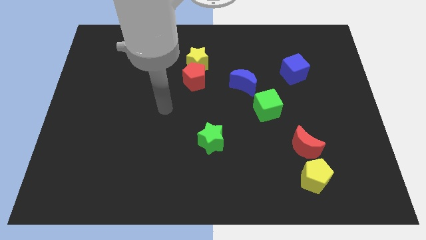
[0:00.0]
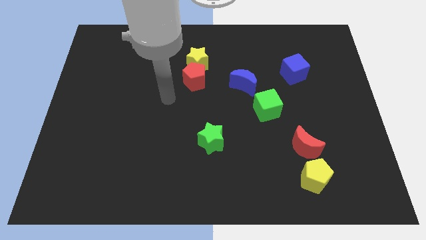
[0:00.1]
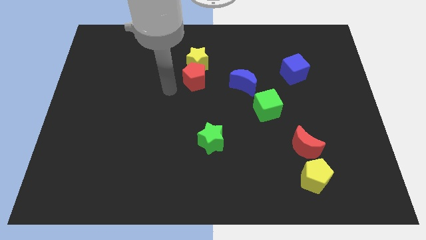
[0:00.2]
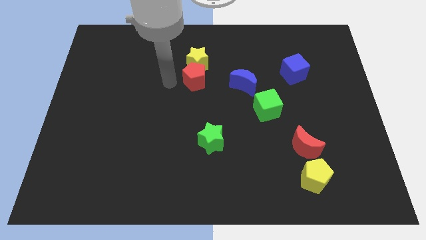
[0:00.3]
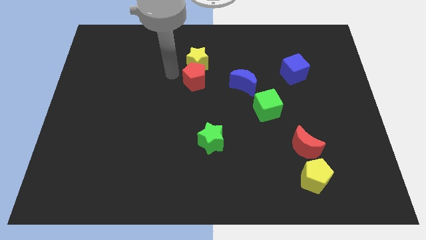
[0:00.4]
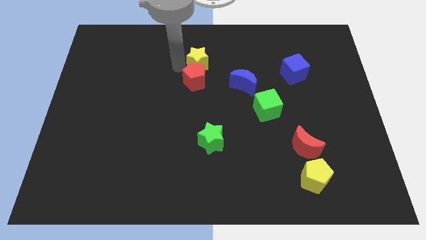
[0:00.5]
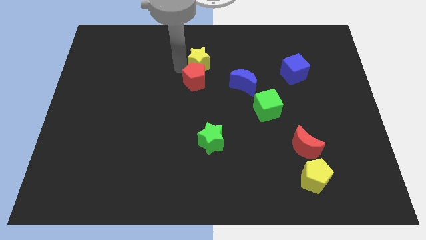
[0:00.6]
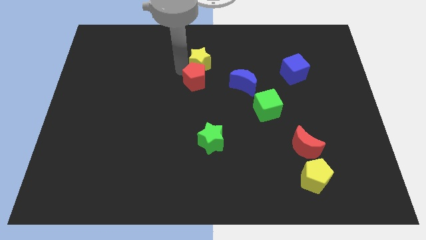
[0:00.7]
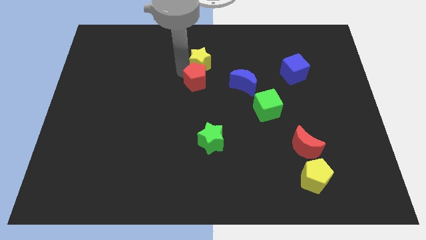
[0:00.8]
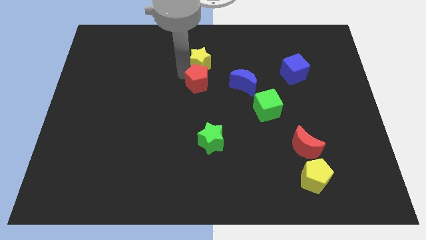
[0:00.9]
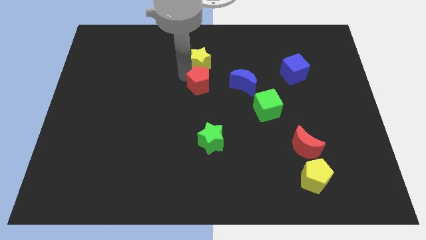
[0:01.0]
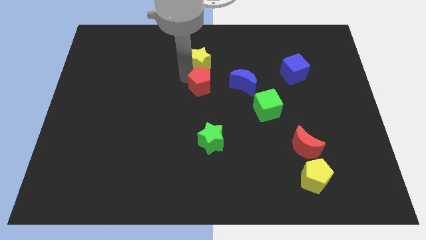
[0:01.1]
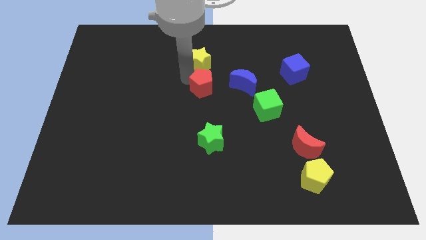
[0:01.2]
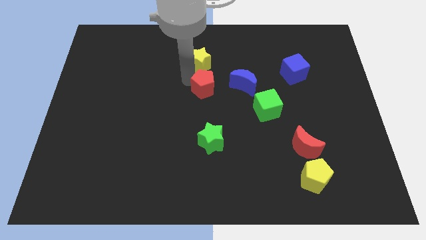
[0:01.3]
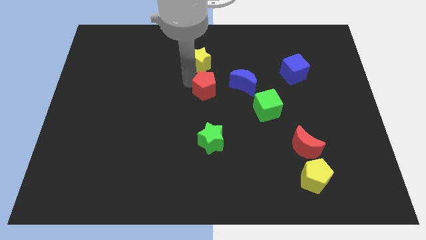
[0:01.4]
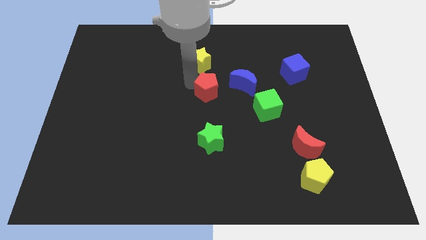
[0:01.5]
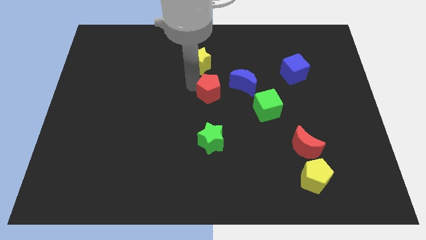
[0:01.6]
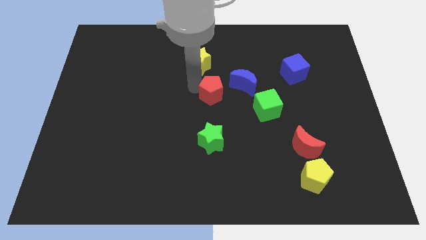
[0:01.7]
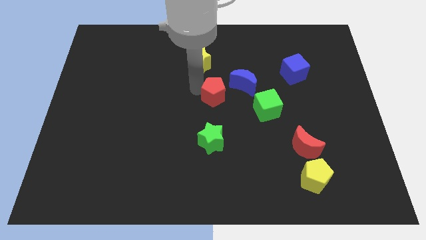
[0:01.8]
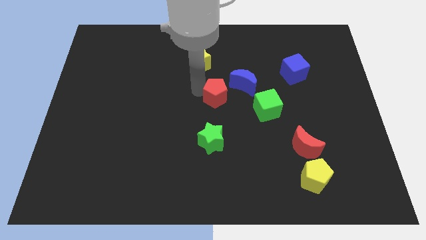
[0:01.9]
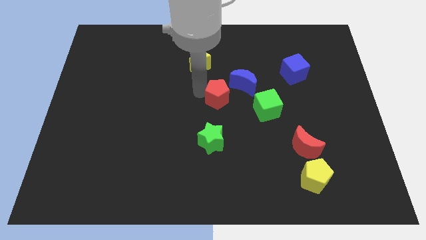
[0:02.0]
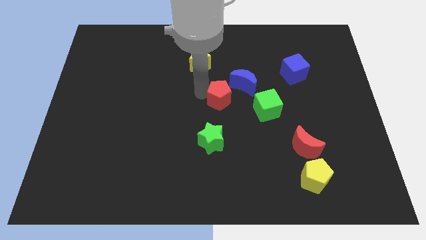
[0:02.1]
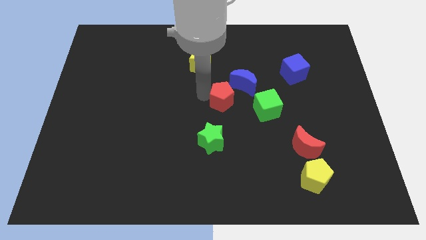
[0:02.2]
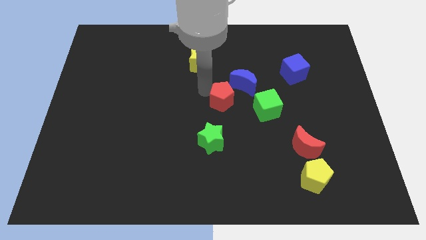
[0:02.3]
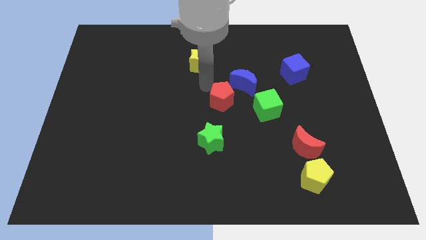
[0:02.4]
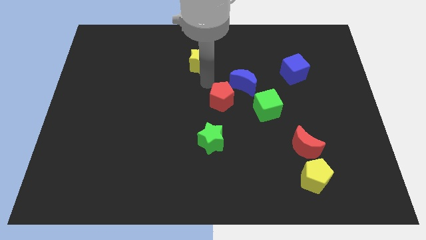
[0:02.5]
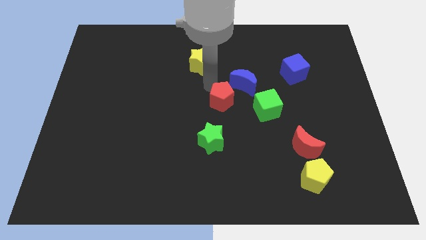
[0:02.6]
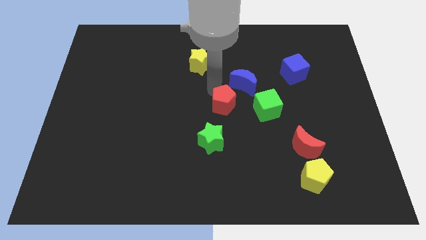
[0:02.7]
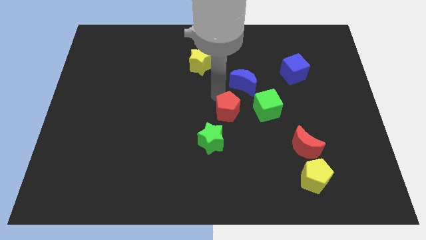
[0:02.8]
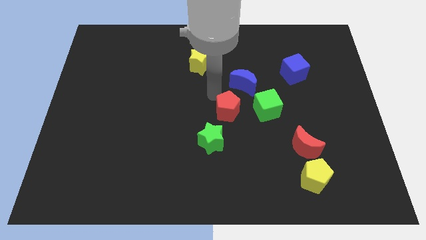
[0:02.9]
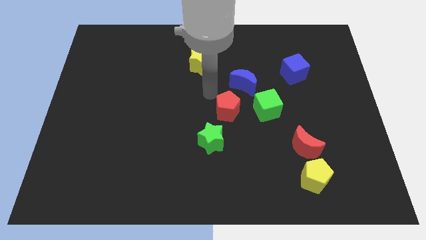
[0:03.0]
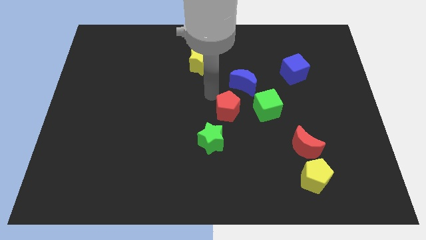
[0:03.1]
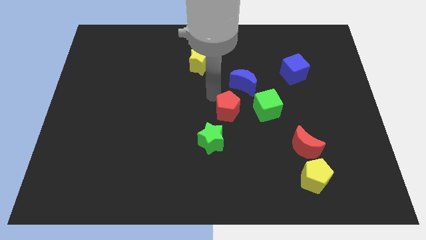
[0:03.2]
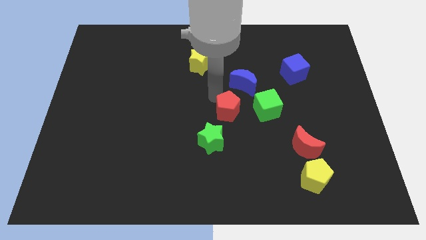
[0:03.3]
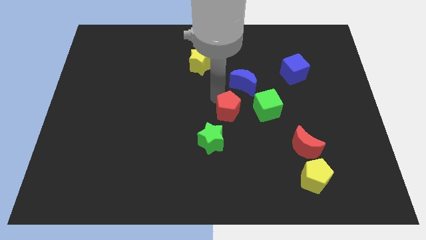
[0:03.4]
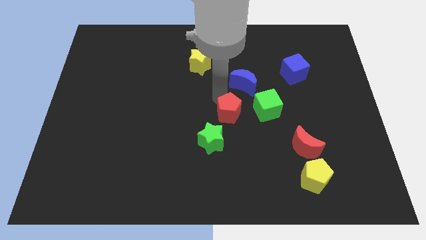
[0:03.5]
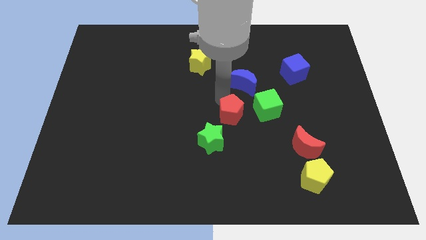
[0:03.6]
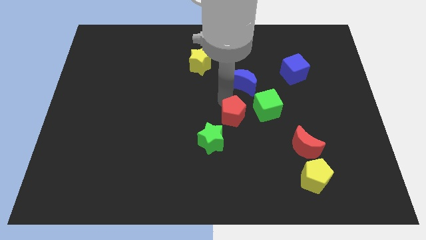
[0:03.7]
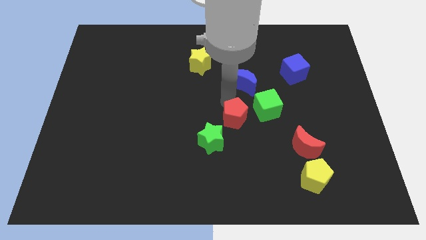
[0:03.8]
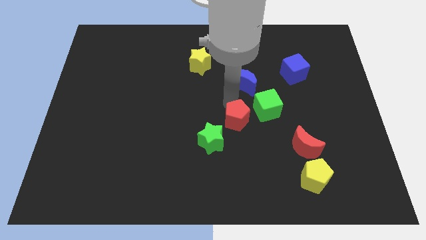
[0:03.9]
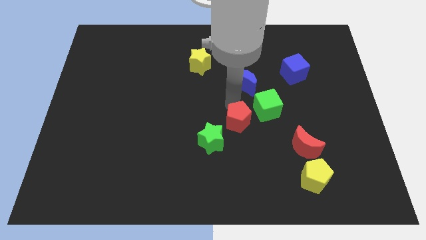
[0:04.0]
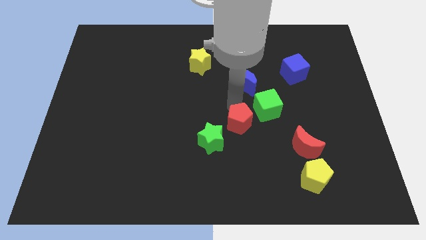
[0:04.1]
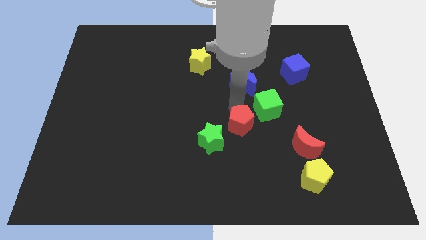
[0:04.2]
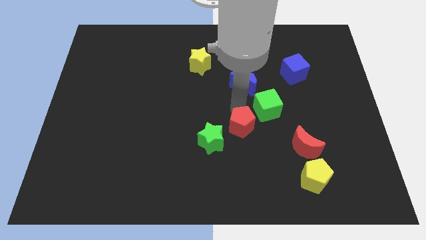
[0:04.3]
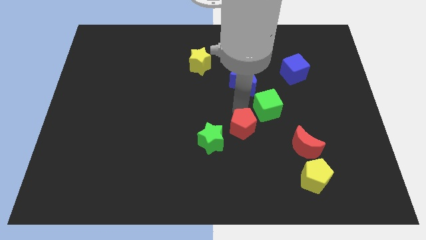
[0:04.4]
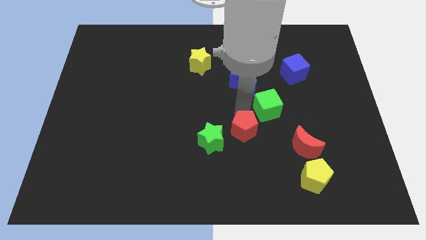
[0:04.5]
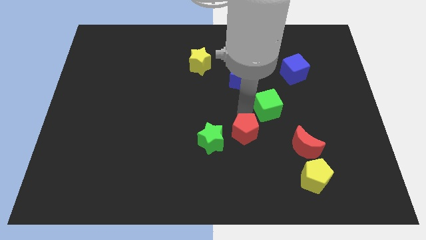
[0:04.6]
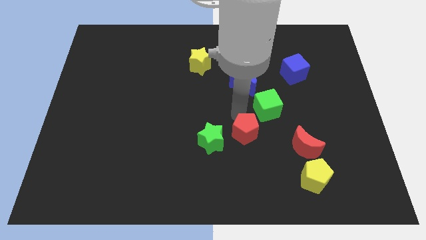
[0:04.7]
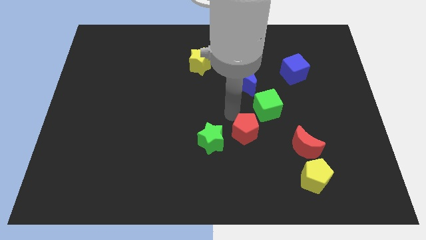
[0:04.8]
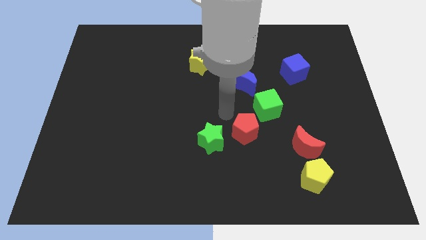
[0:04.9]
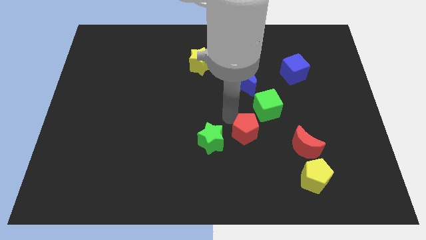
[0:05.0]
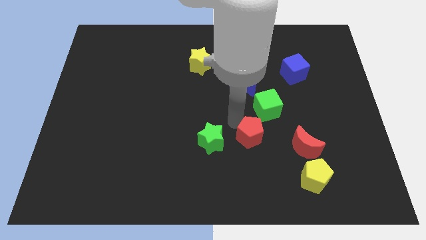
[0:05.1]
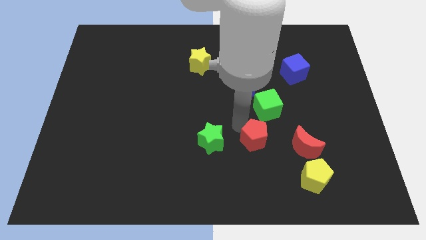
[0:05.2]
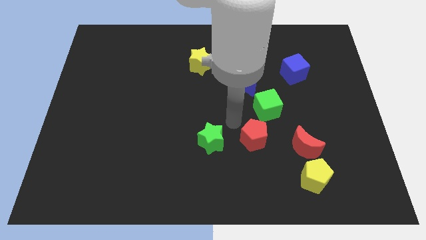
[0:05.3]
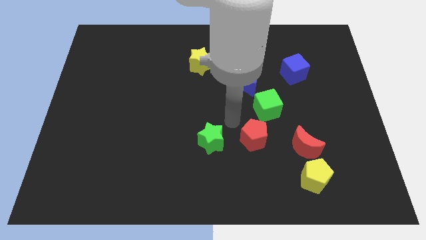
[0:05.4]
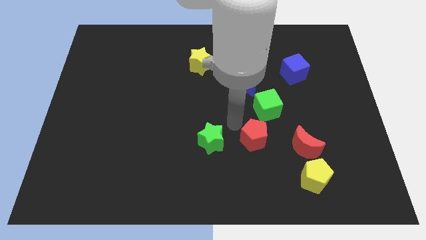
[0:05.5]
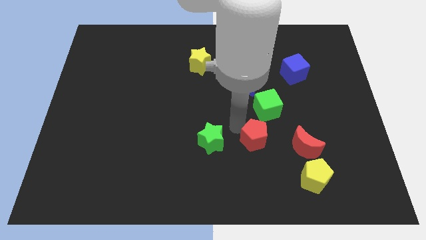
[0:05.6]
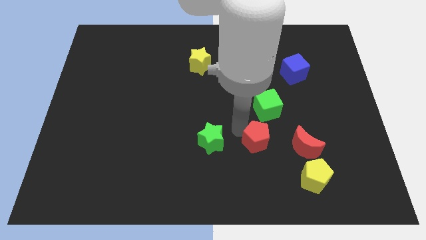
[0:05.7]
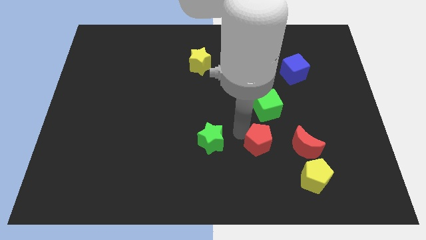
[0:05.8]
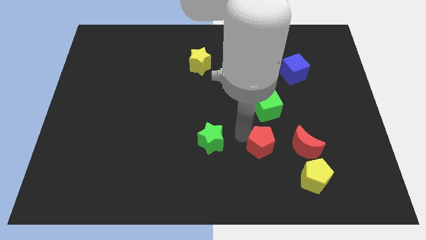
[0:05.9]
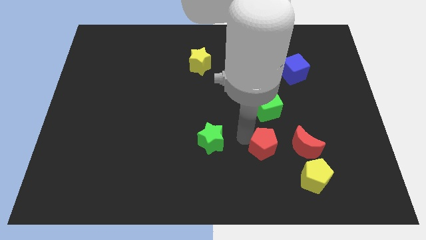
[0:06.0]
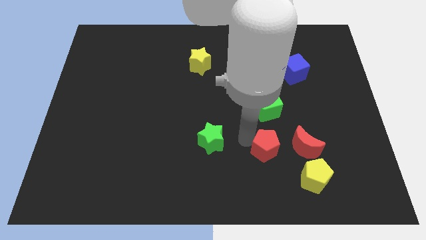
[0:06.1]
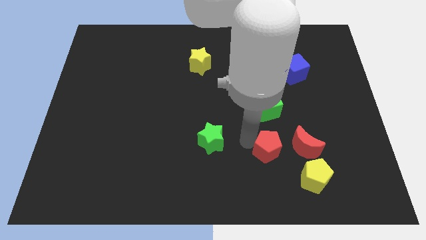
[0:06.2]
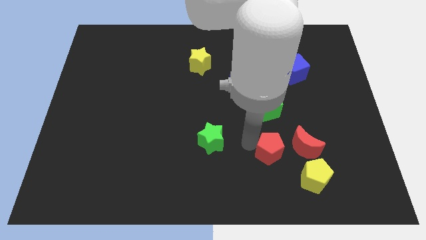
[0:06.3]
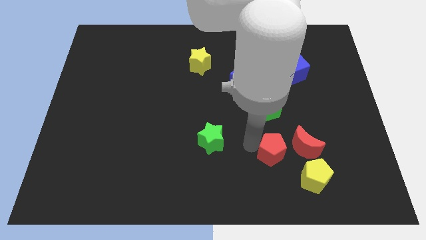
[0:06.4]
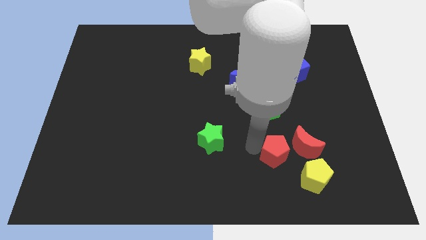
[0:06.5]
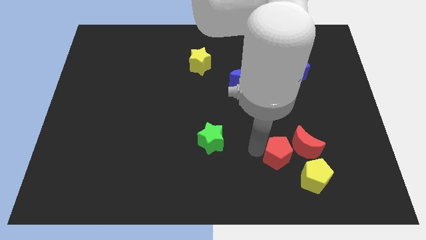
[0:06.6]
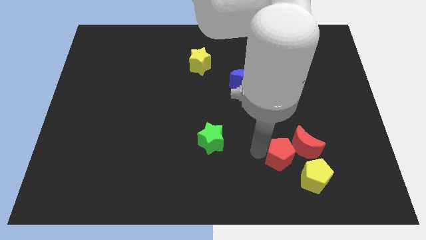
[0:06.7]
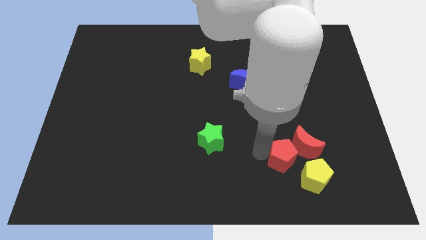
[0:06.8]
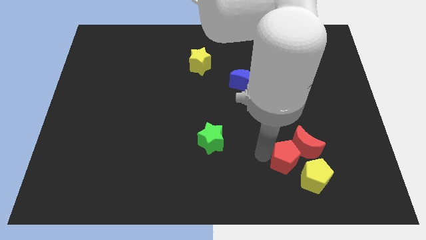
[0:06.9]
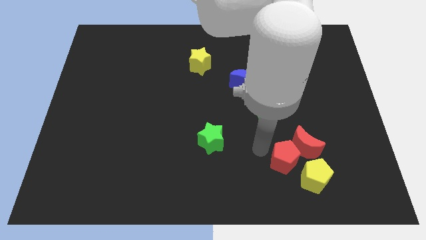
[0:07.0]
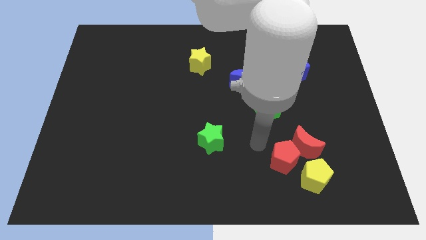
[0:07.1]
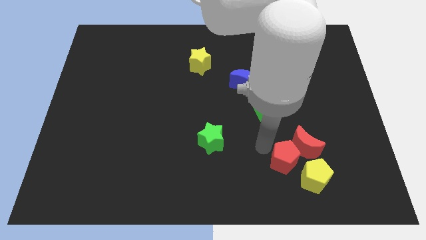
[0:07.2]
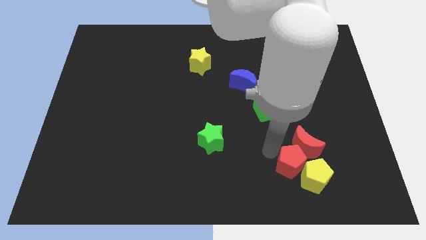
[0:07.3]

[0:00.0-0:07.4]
put the red pentagon to the yellow pentagon
